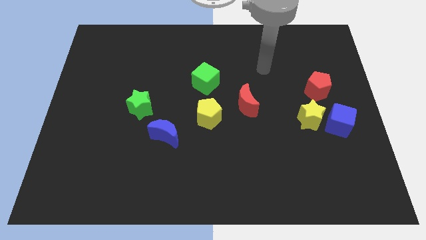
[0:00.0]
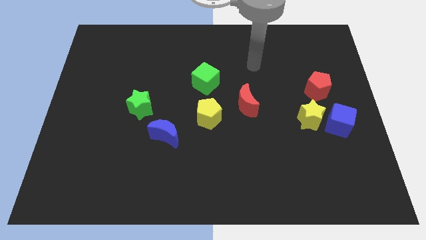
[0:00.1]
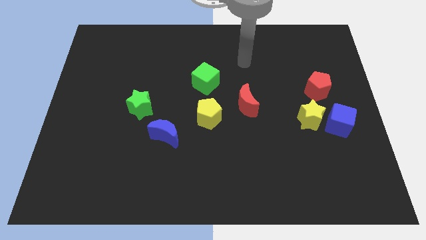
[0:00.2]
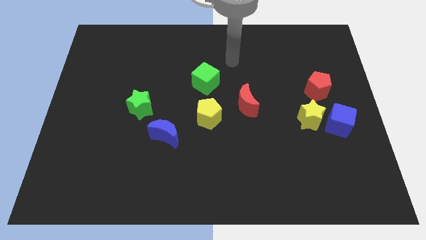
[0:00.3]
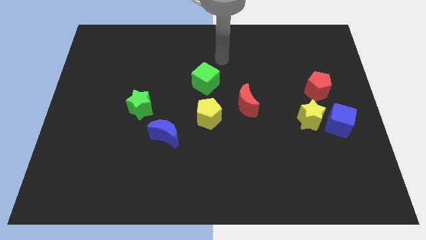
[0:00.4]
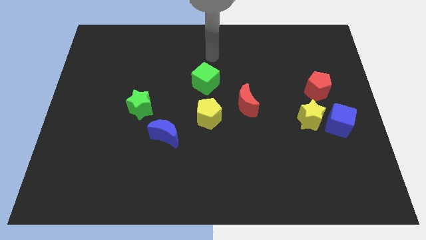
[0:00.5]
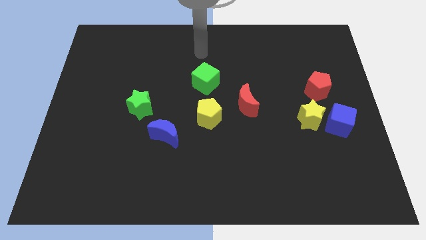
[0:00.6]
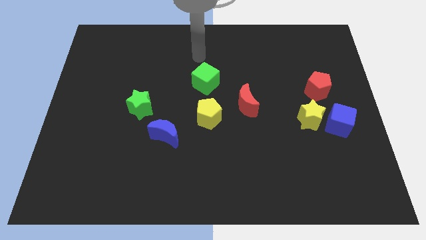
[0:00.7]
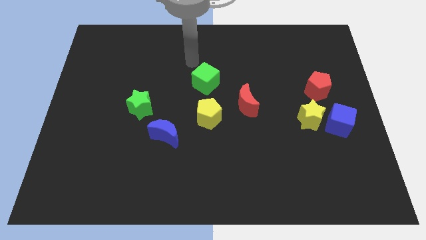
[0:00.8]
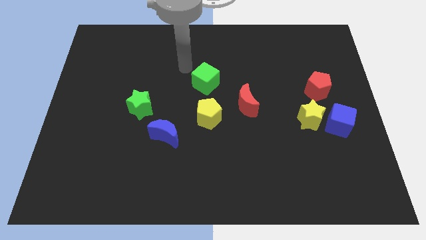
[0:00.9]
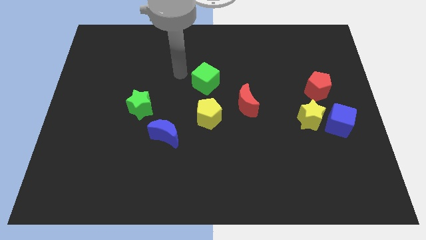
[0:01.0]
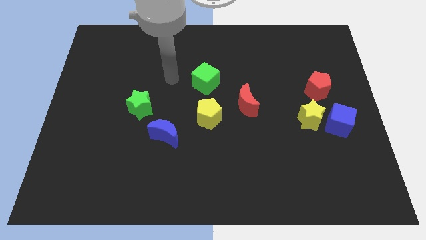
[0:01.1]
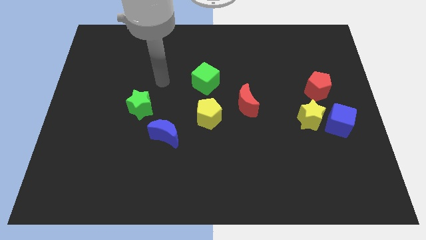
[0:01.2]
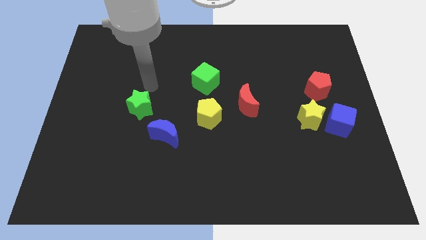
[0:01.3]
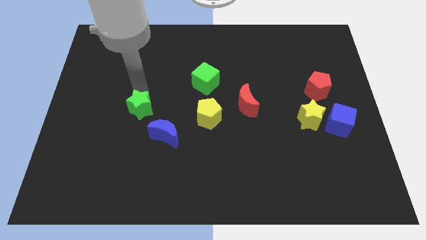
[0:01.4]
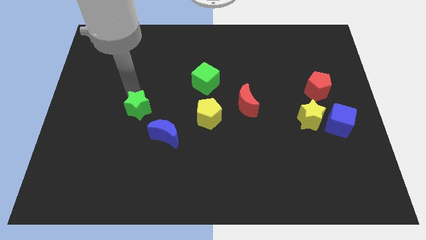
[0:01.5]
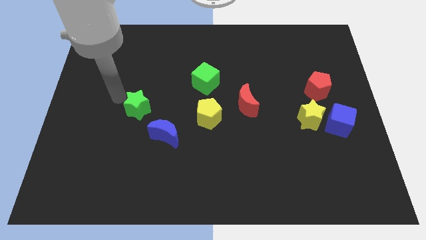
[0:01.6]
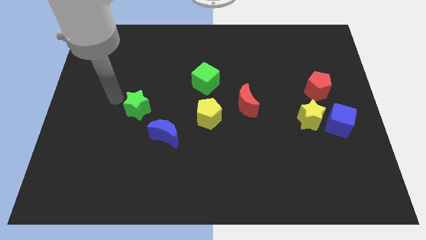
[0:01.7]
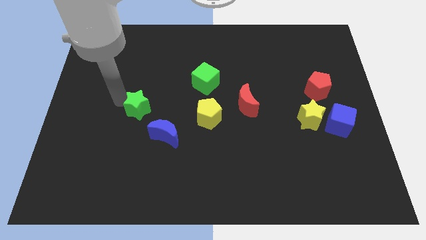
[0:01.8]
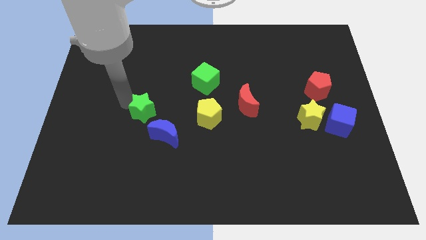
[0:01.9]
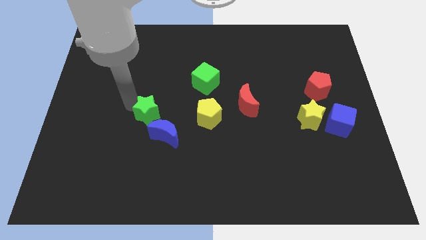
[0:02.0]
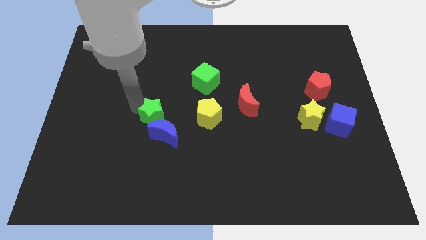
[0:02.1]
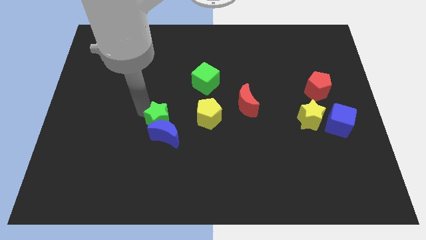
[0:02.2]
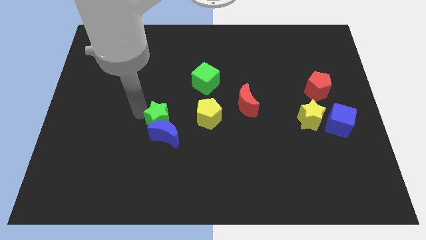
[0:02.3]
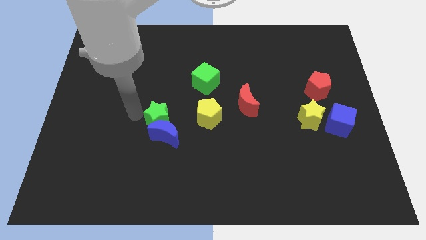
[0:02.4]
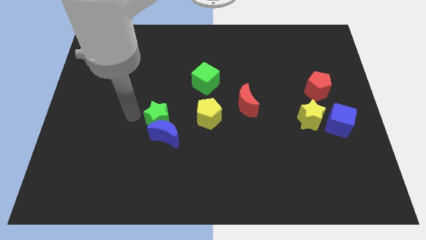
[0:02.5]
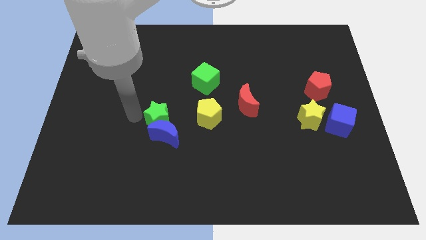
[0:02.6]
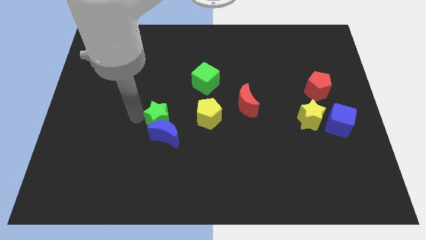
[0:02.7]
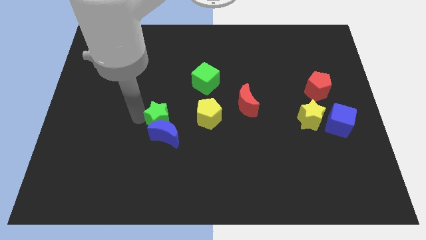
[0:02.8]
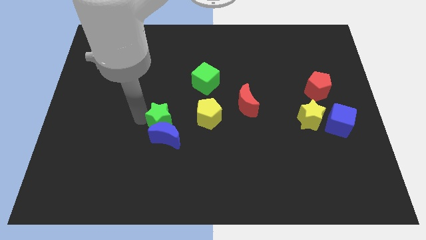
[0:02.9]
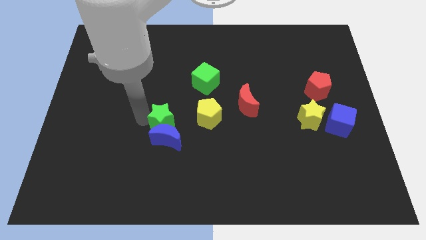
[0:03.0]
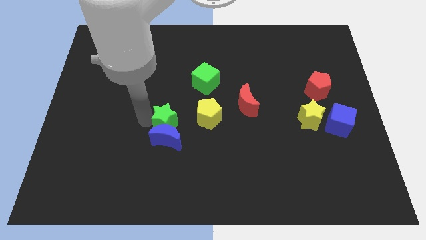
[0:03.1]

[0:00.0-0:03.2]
push the green star diagonally down and to the right slightly

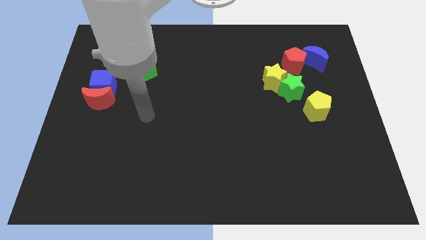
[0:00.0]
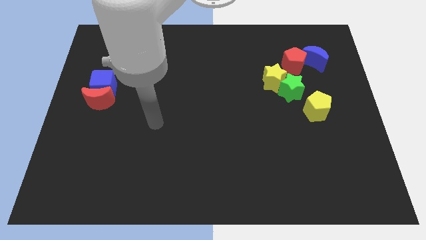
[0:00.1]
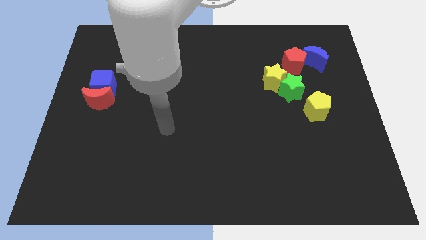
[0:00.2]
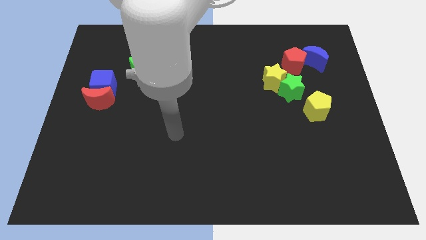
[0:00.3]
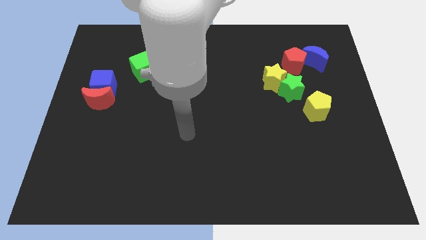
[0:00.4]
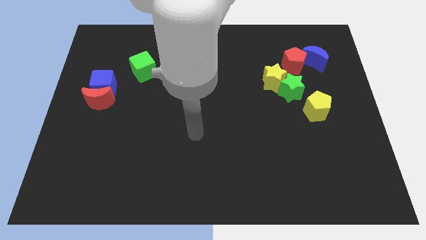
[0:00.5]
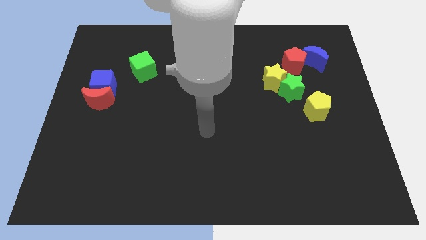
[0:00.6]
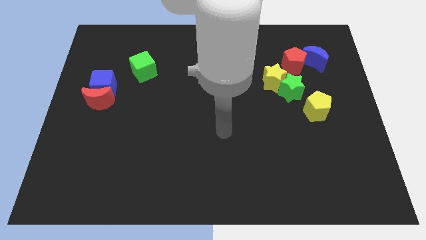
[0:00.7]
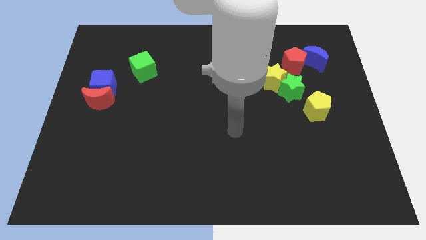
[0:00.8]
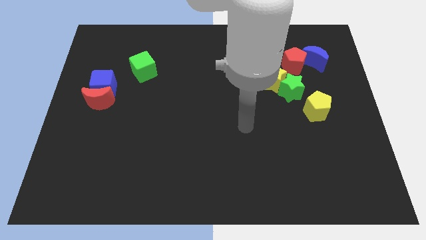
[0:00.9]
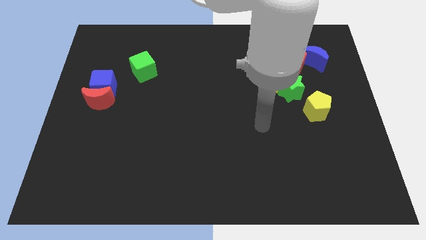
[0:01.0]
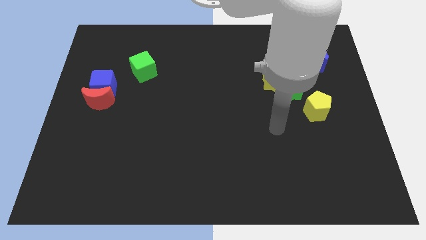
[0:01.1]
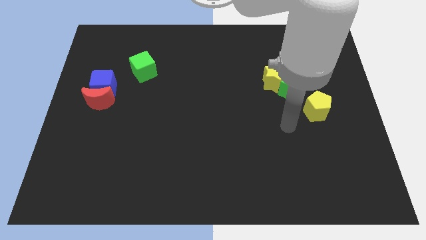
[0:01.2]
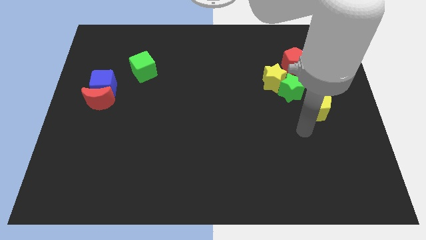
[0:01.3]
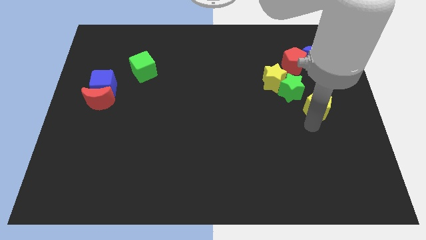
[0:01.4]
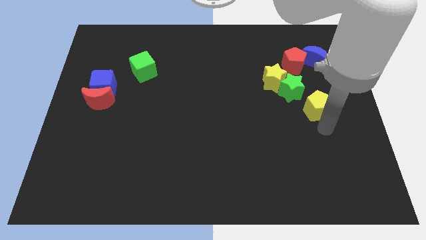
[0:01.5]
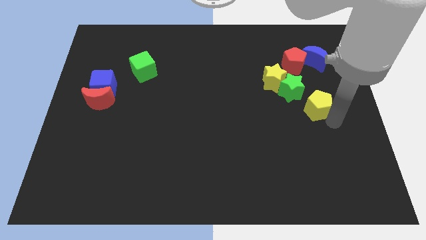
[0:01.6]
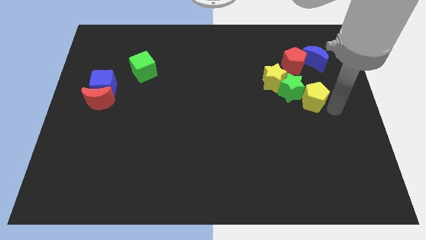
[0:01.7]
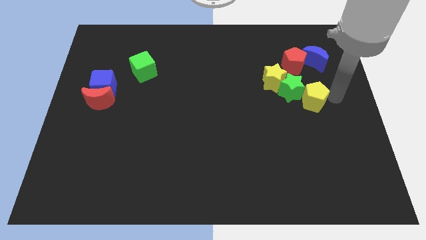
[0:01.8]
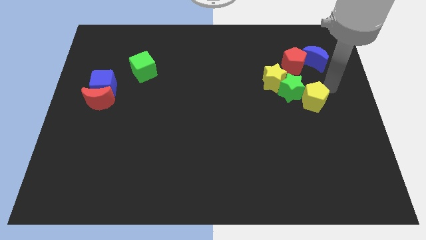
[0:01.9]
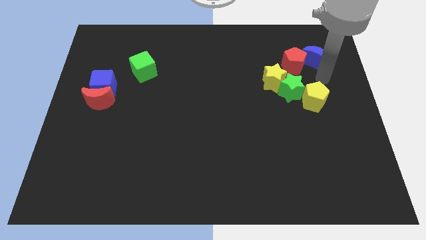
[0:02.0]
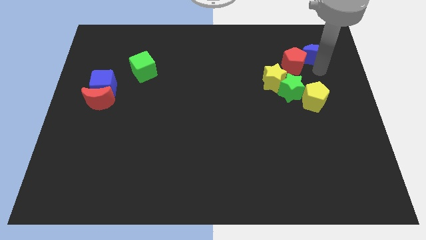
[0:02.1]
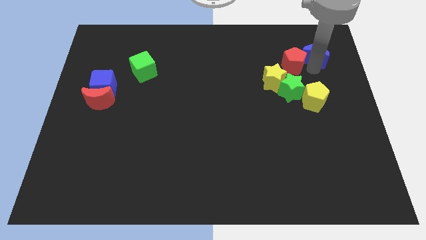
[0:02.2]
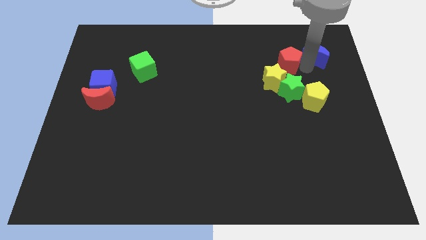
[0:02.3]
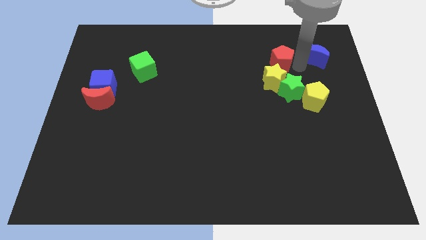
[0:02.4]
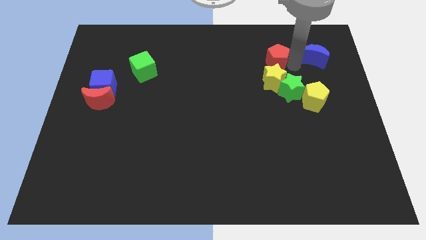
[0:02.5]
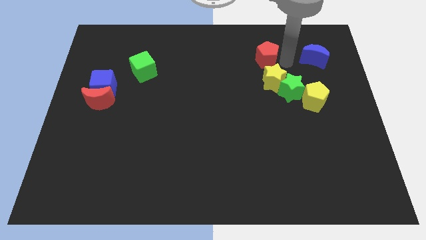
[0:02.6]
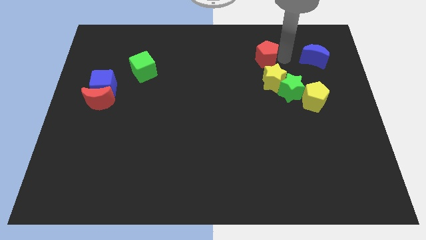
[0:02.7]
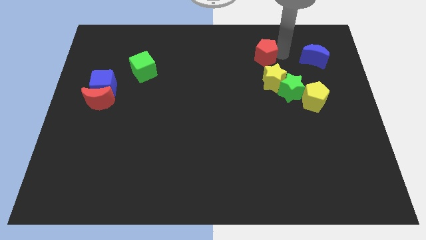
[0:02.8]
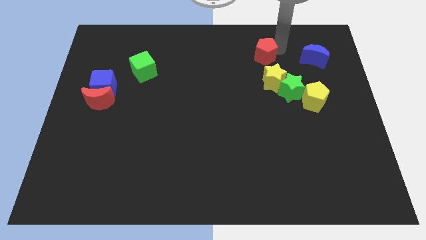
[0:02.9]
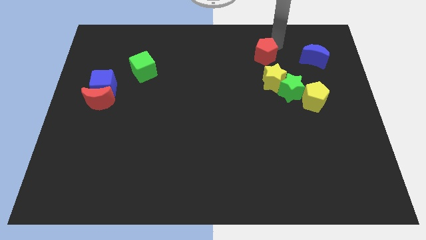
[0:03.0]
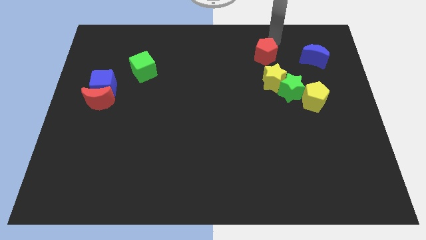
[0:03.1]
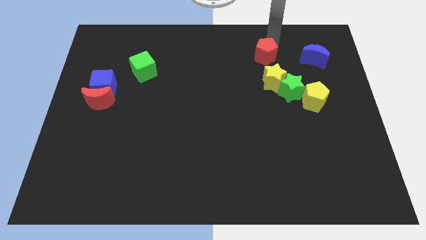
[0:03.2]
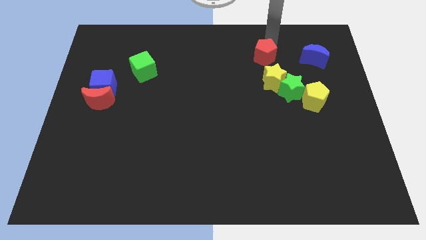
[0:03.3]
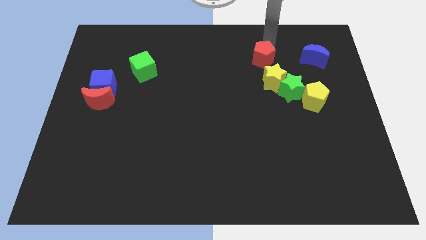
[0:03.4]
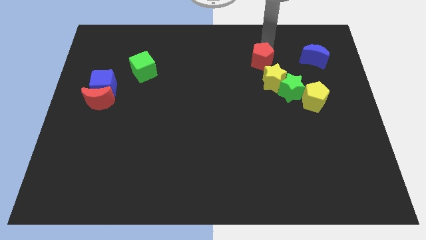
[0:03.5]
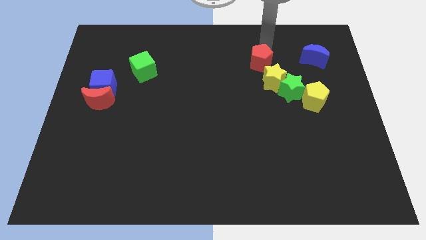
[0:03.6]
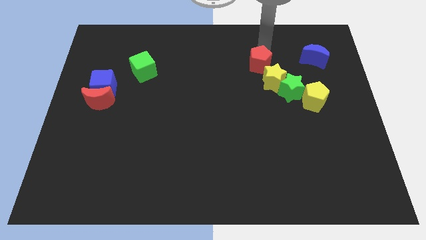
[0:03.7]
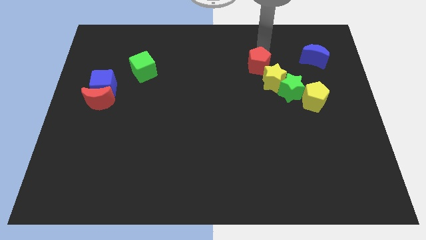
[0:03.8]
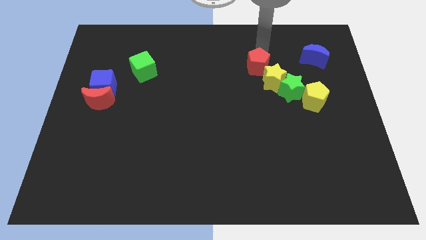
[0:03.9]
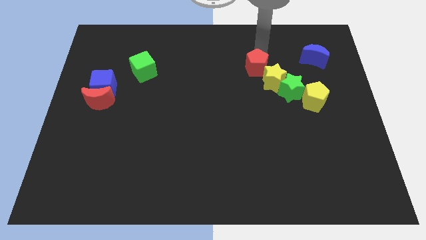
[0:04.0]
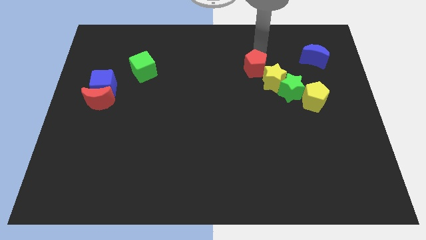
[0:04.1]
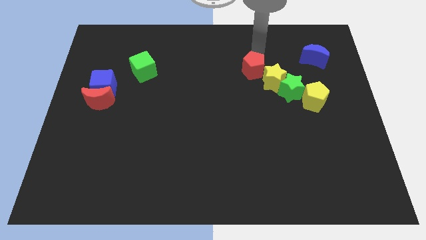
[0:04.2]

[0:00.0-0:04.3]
slightly slide the red pentagon diagonally down and left

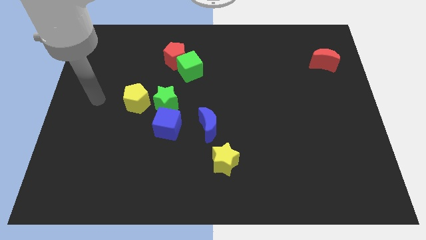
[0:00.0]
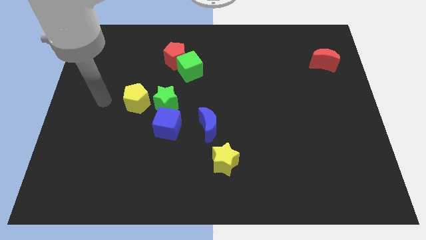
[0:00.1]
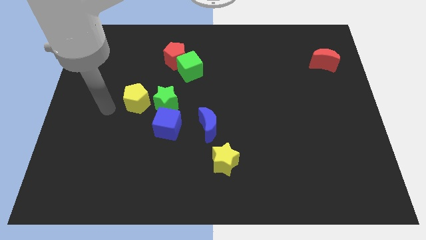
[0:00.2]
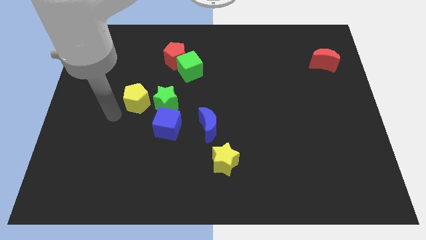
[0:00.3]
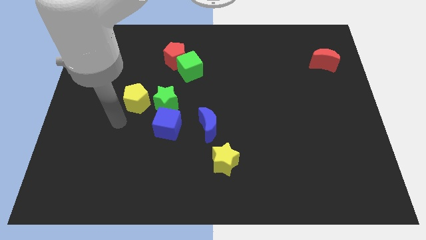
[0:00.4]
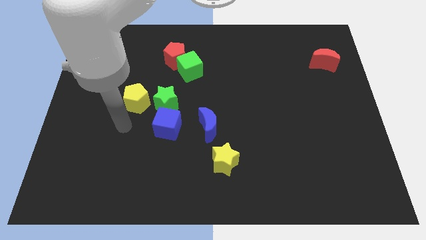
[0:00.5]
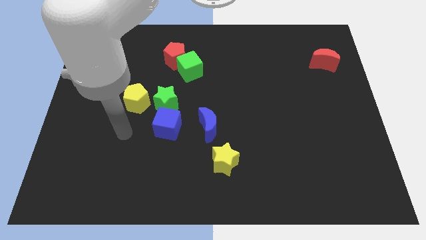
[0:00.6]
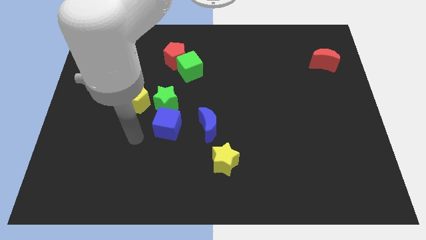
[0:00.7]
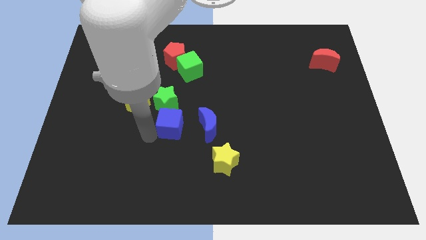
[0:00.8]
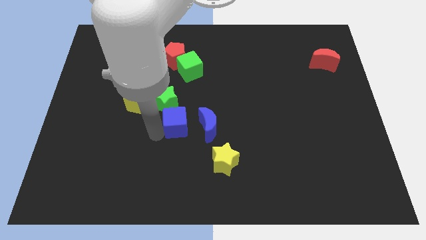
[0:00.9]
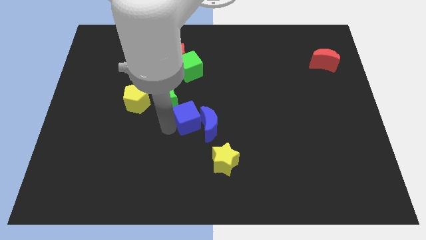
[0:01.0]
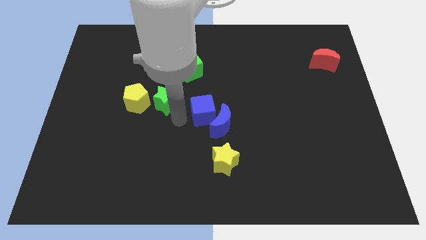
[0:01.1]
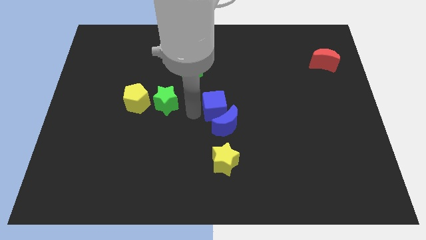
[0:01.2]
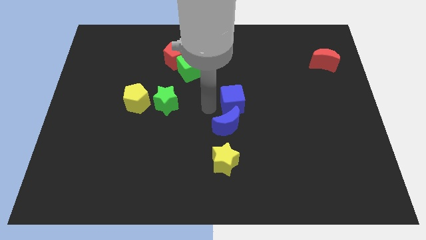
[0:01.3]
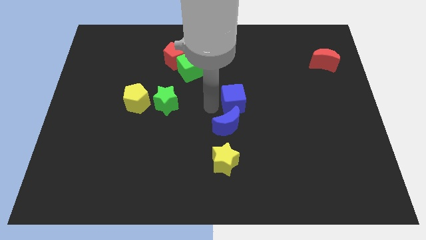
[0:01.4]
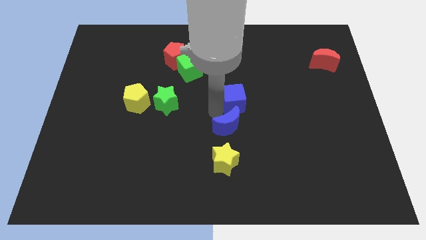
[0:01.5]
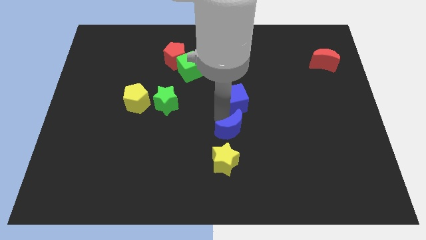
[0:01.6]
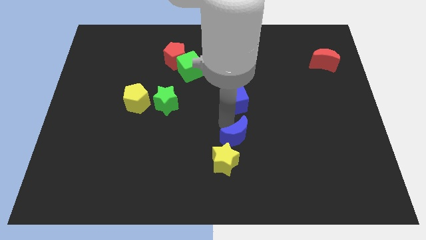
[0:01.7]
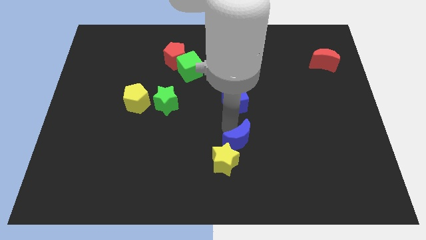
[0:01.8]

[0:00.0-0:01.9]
move the blue moon diagonally down and to the right somewhat
